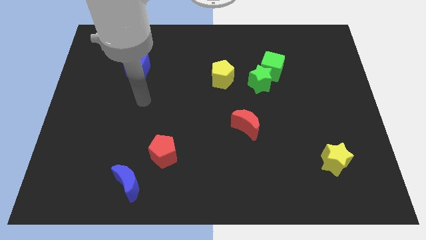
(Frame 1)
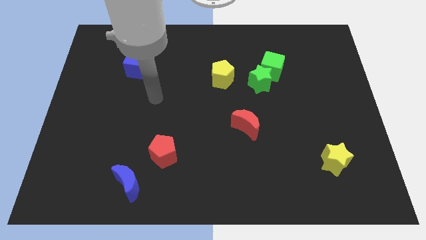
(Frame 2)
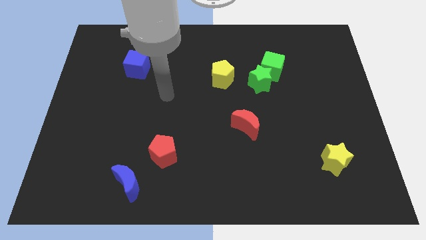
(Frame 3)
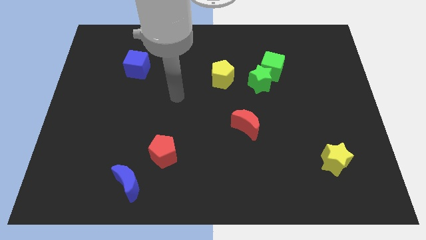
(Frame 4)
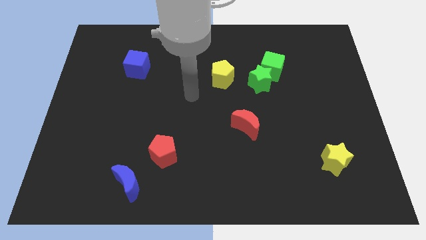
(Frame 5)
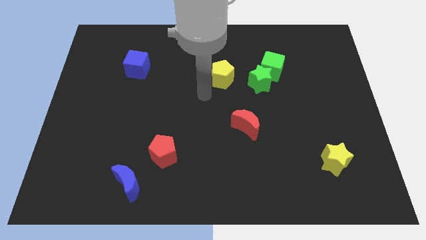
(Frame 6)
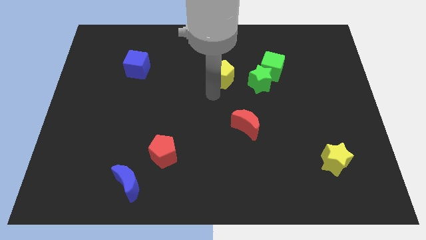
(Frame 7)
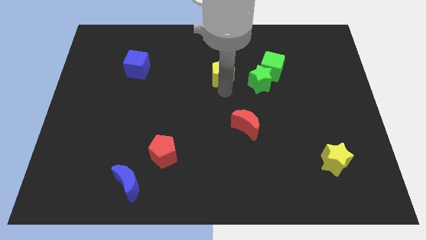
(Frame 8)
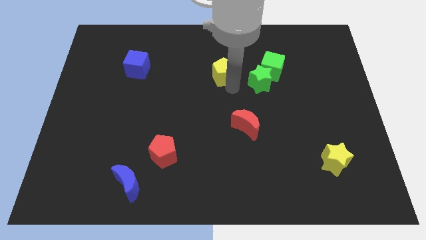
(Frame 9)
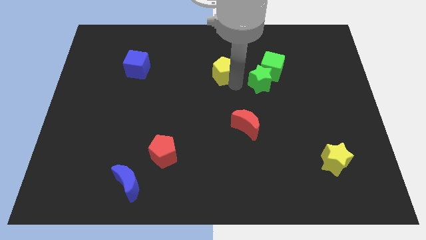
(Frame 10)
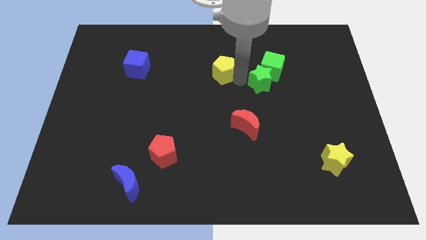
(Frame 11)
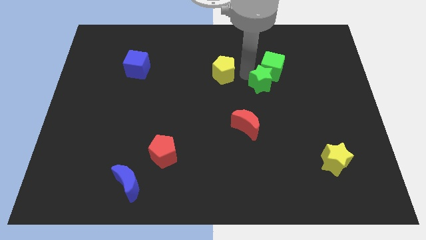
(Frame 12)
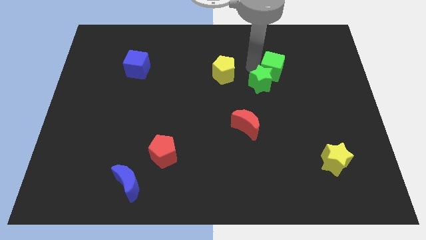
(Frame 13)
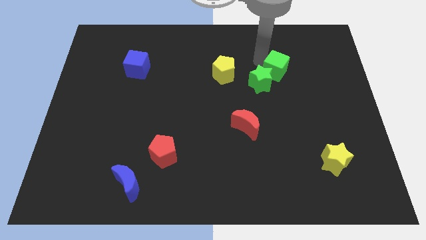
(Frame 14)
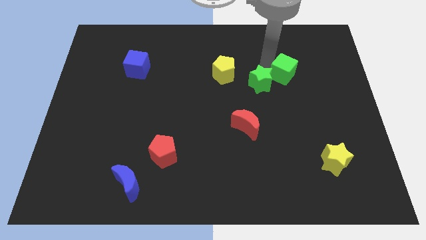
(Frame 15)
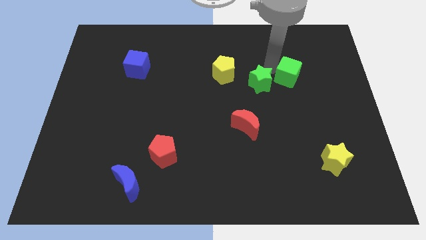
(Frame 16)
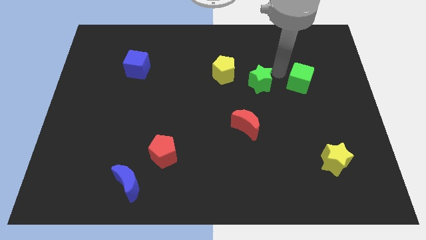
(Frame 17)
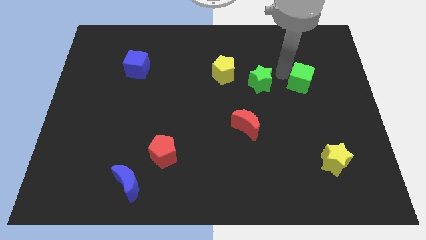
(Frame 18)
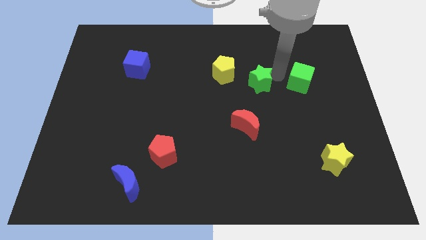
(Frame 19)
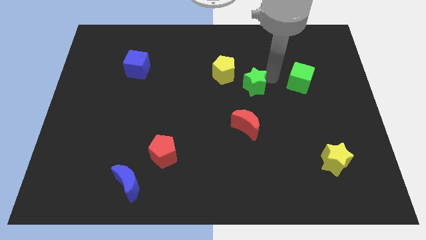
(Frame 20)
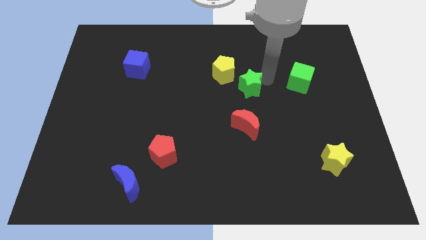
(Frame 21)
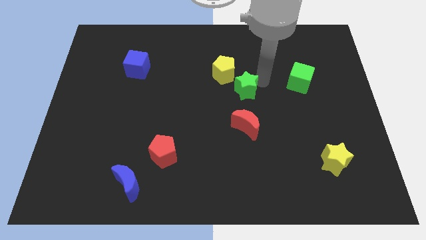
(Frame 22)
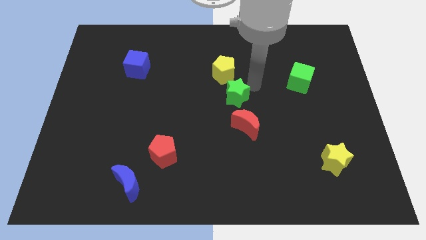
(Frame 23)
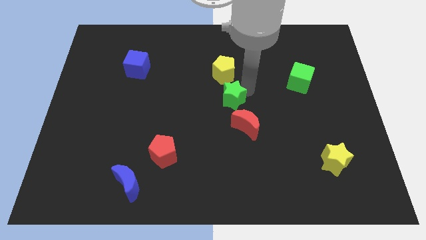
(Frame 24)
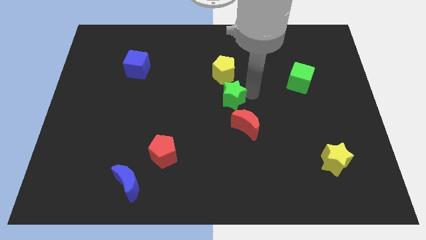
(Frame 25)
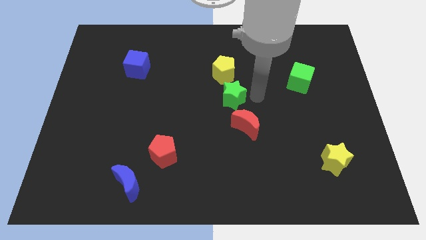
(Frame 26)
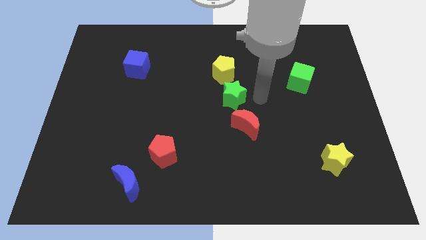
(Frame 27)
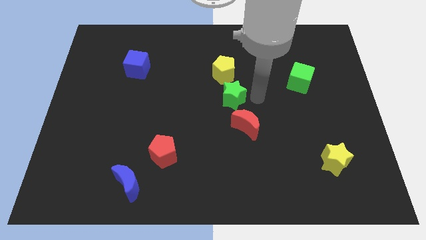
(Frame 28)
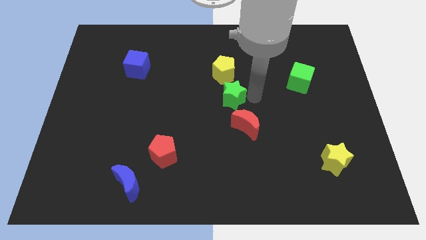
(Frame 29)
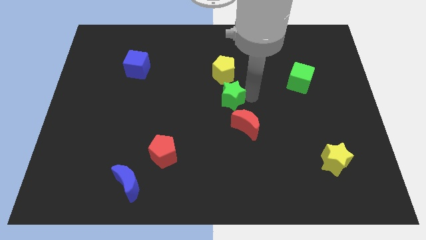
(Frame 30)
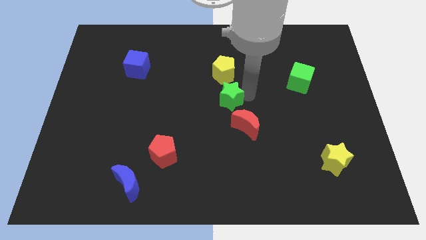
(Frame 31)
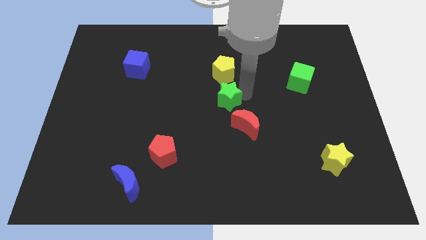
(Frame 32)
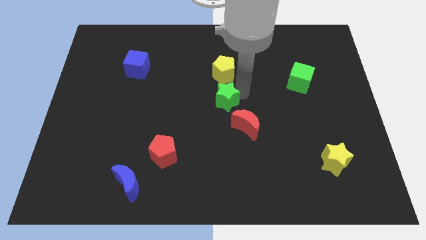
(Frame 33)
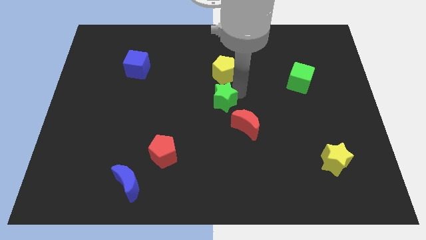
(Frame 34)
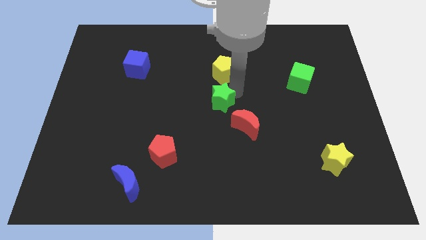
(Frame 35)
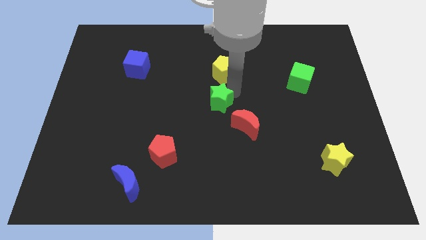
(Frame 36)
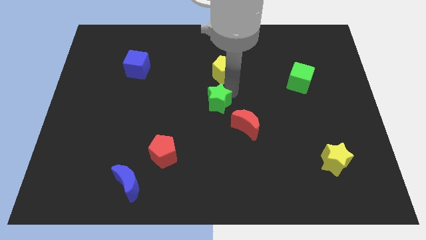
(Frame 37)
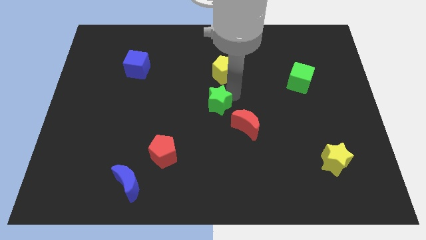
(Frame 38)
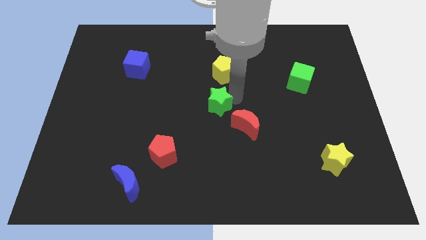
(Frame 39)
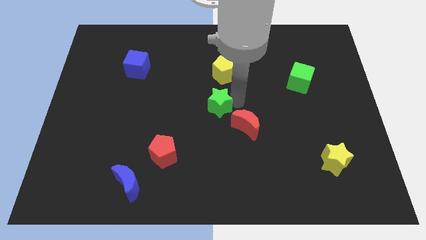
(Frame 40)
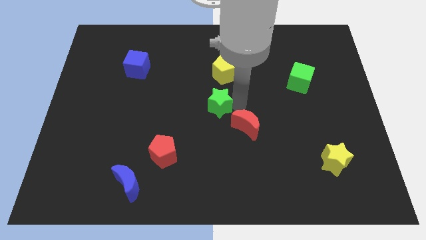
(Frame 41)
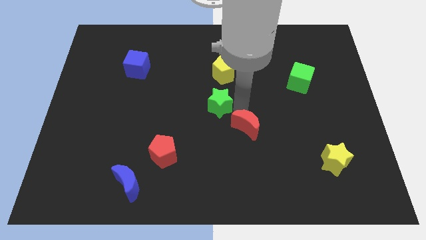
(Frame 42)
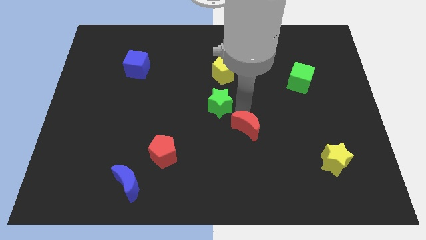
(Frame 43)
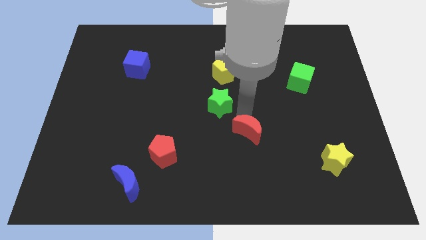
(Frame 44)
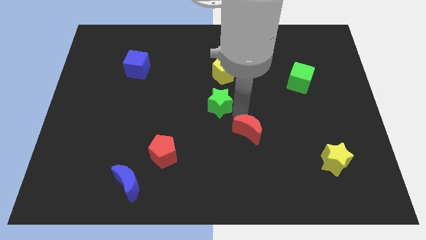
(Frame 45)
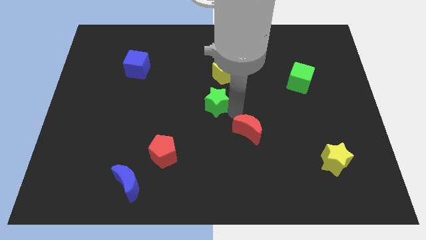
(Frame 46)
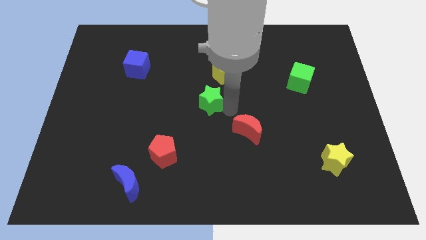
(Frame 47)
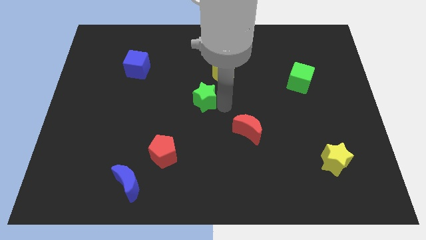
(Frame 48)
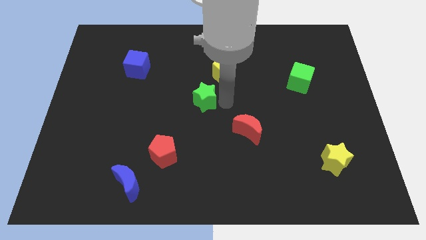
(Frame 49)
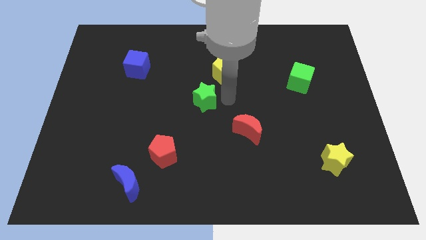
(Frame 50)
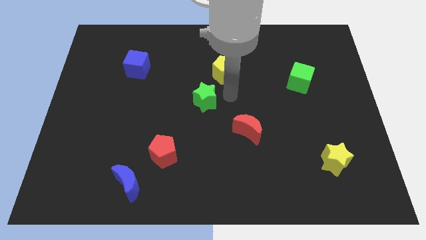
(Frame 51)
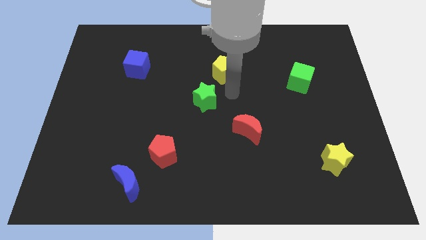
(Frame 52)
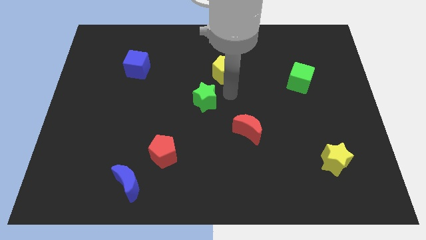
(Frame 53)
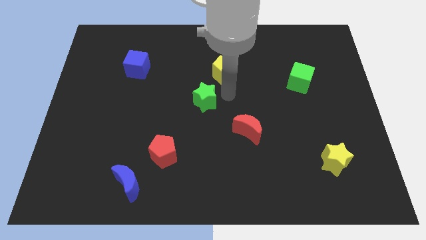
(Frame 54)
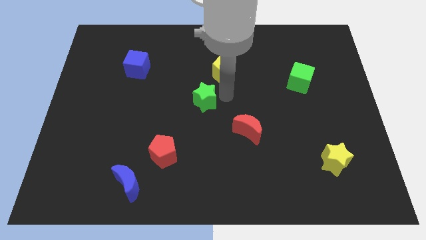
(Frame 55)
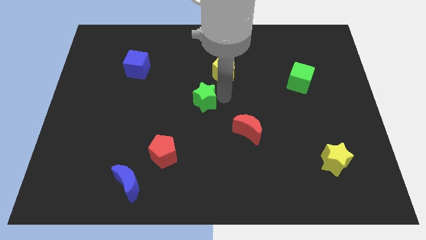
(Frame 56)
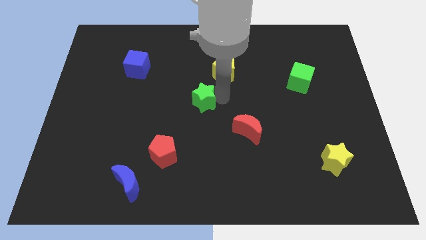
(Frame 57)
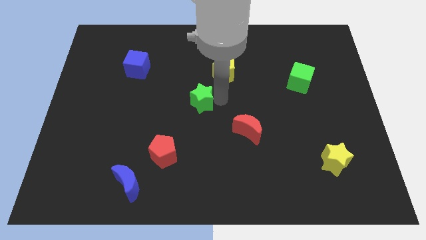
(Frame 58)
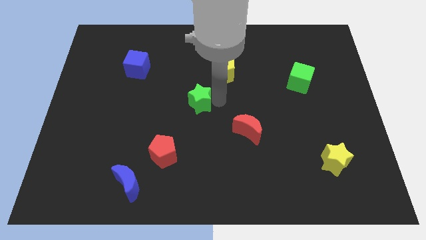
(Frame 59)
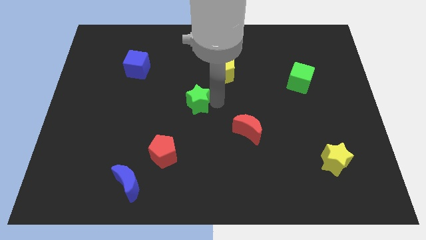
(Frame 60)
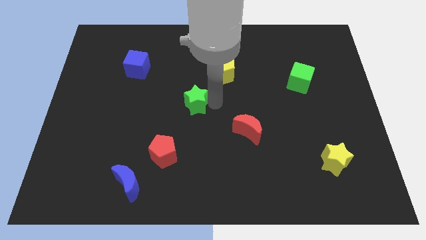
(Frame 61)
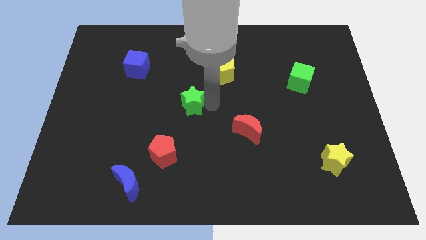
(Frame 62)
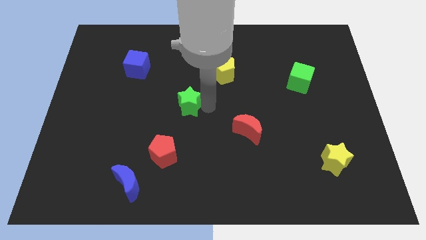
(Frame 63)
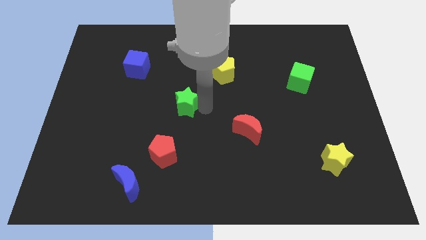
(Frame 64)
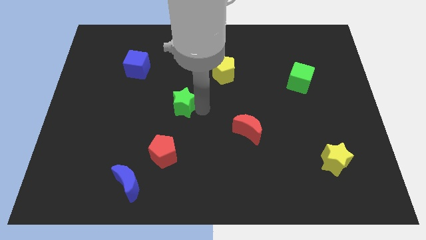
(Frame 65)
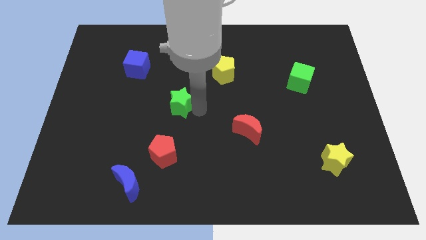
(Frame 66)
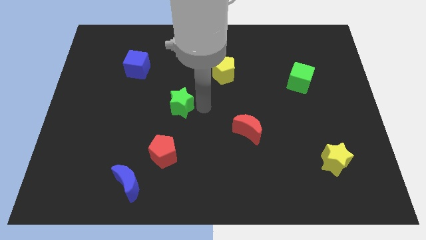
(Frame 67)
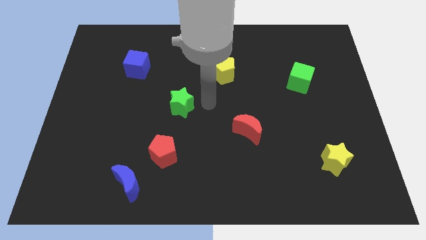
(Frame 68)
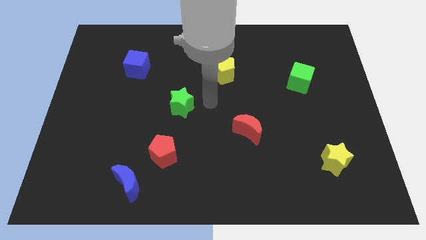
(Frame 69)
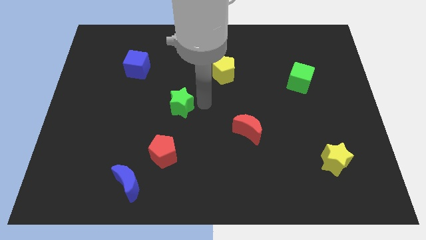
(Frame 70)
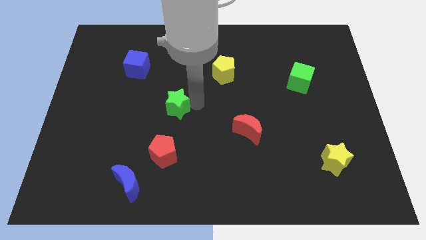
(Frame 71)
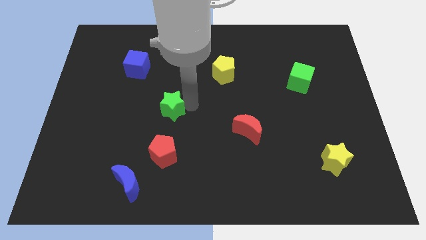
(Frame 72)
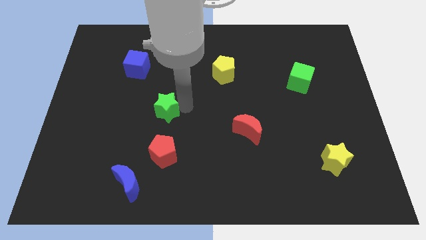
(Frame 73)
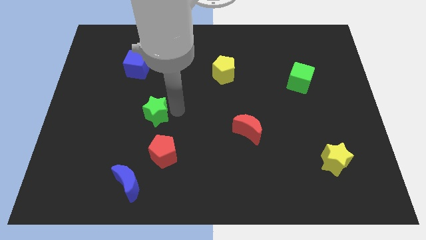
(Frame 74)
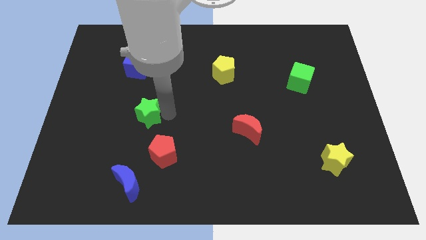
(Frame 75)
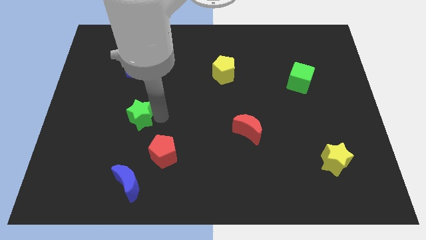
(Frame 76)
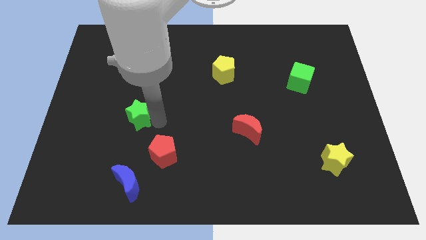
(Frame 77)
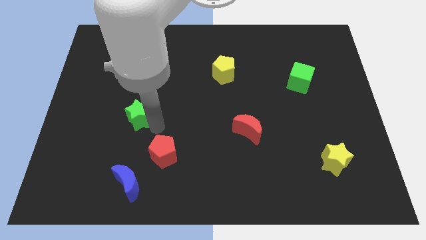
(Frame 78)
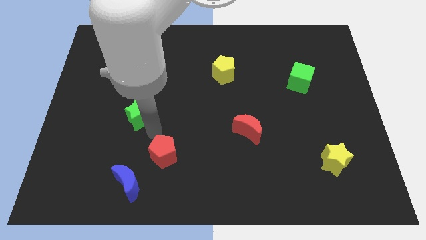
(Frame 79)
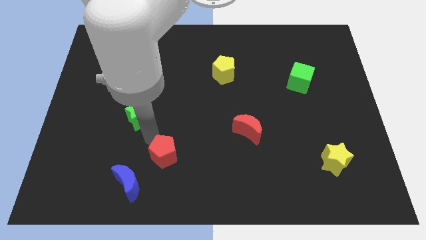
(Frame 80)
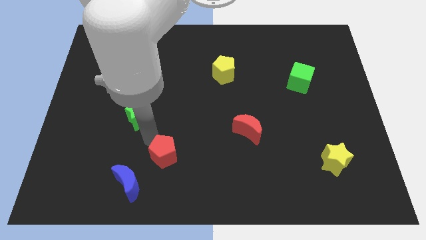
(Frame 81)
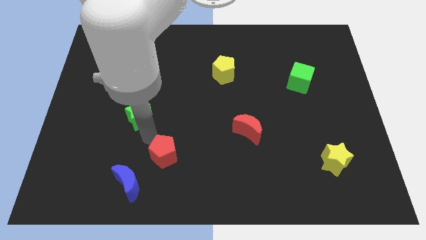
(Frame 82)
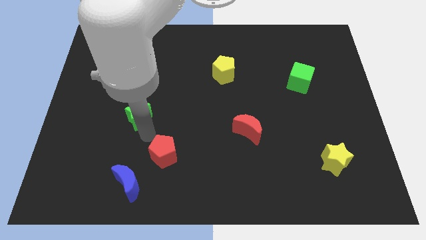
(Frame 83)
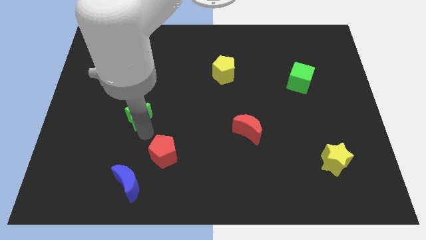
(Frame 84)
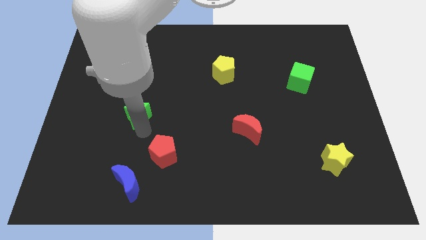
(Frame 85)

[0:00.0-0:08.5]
slide the green star to the bottom side of the blue cube
